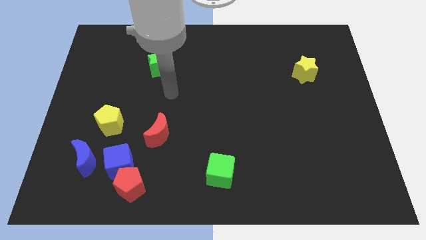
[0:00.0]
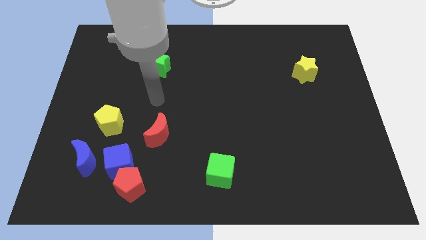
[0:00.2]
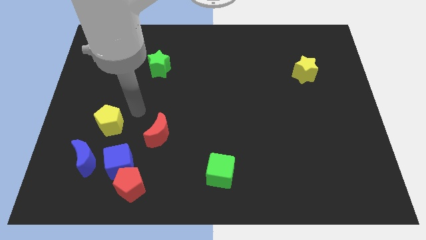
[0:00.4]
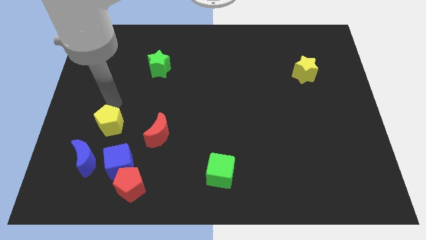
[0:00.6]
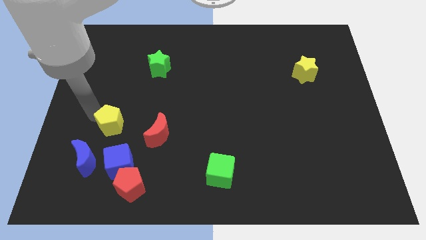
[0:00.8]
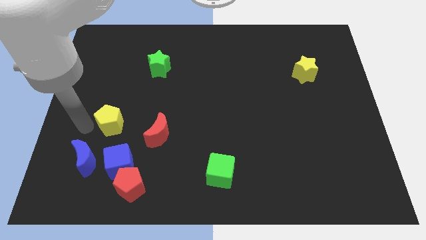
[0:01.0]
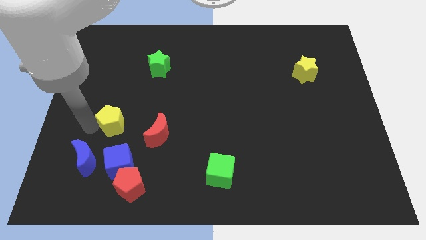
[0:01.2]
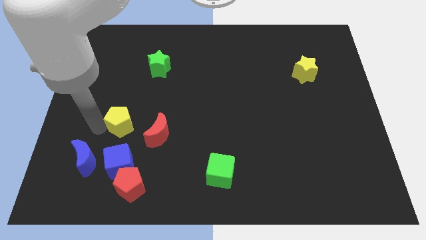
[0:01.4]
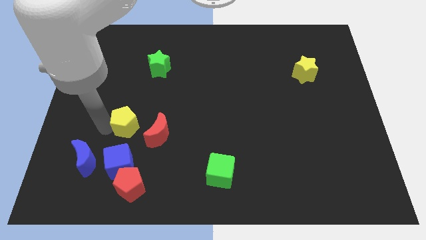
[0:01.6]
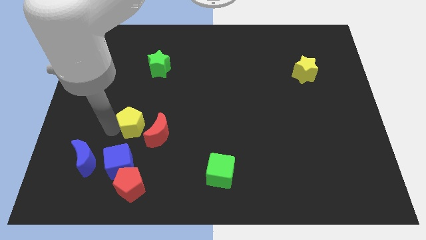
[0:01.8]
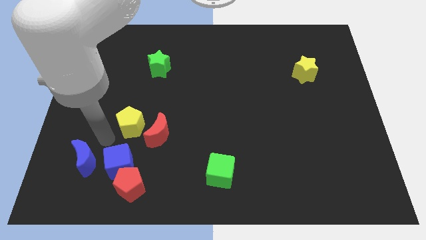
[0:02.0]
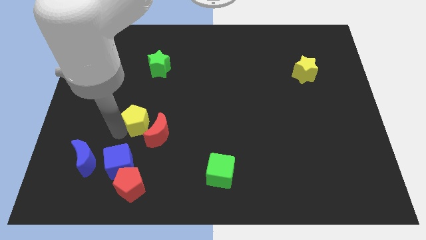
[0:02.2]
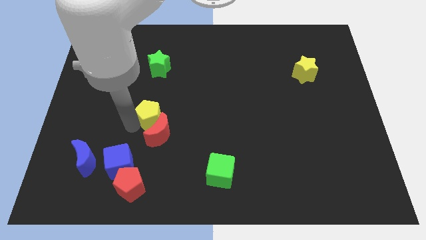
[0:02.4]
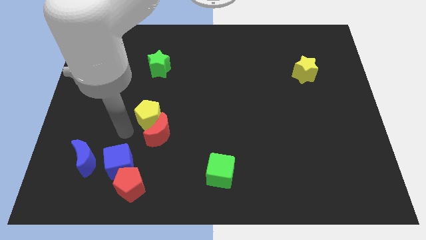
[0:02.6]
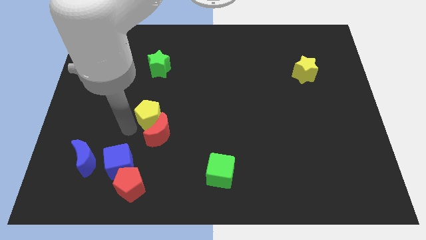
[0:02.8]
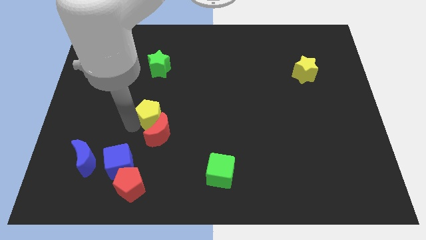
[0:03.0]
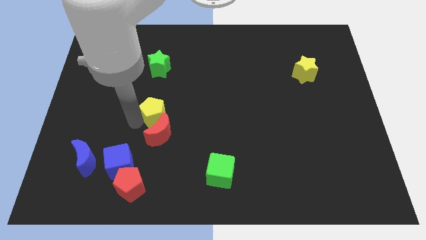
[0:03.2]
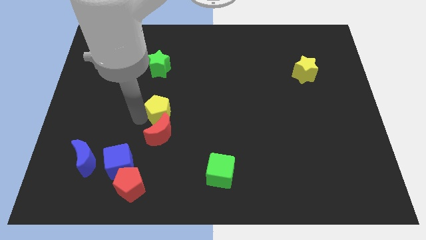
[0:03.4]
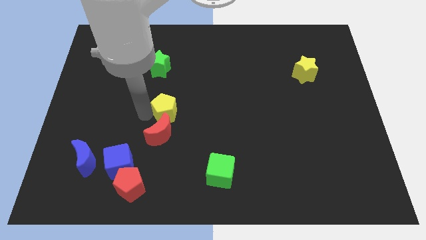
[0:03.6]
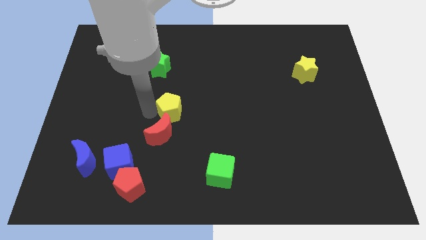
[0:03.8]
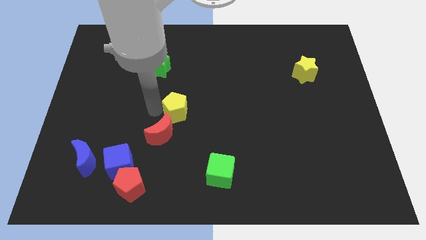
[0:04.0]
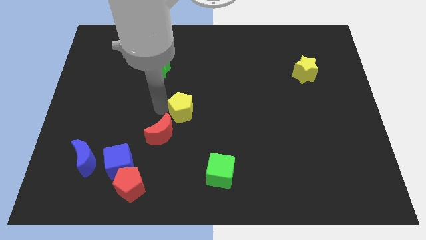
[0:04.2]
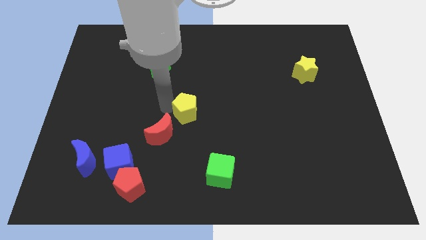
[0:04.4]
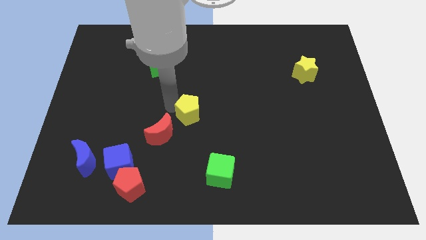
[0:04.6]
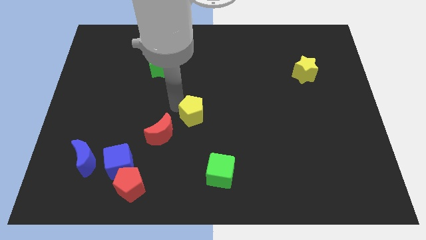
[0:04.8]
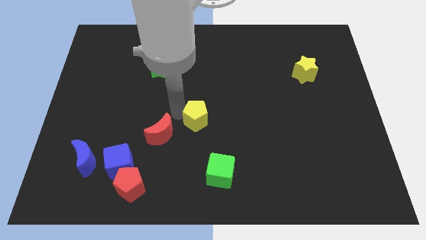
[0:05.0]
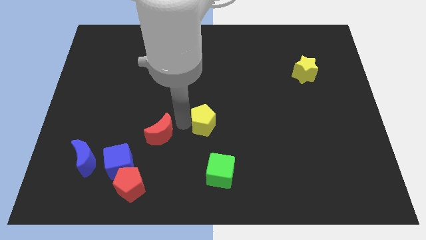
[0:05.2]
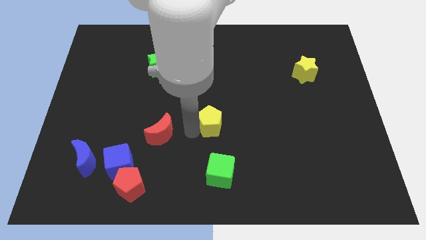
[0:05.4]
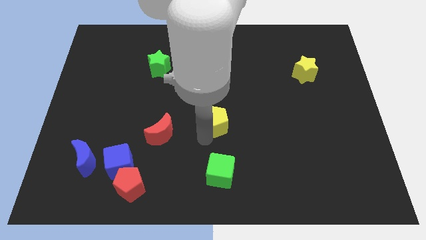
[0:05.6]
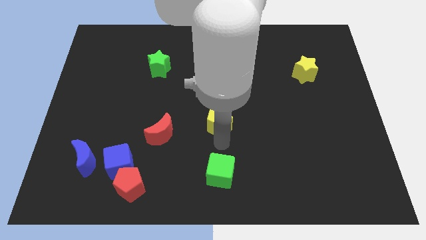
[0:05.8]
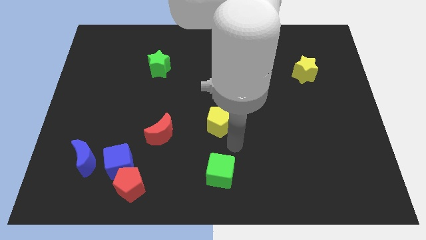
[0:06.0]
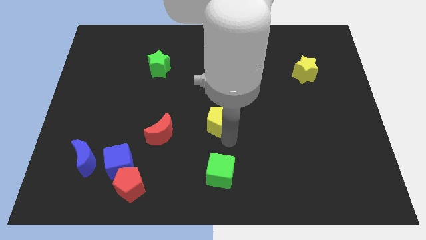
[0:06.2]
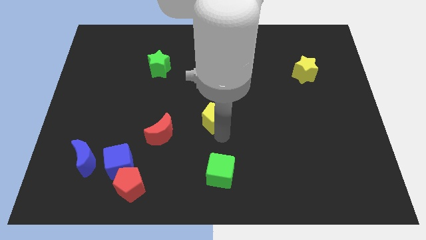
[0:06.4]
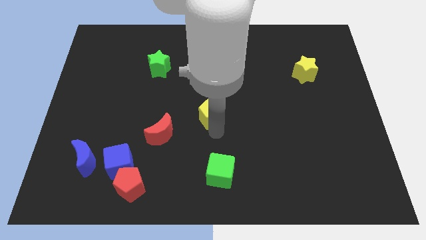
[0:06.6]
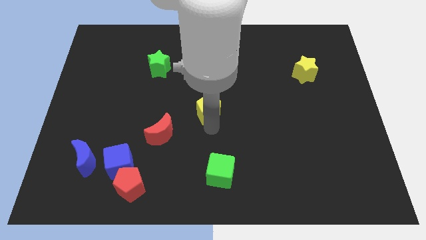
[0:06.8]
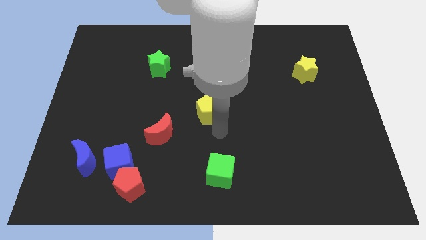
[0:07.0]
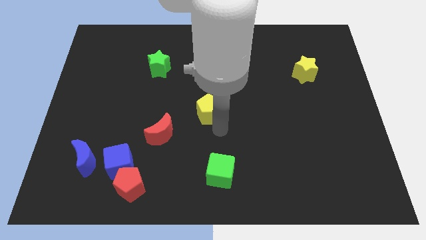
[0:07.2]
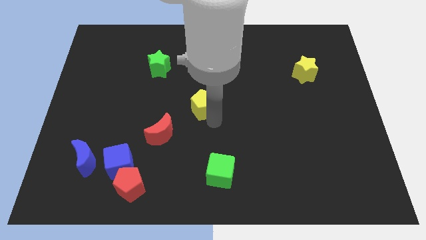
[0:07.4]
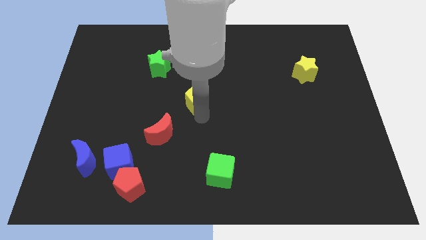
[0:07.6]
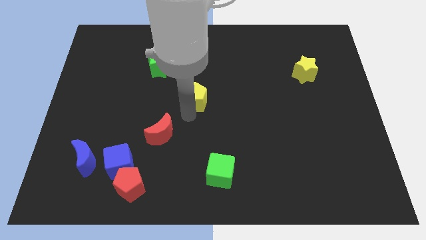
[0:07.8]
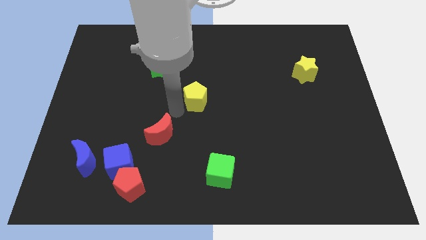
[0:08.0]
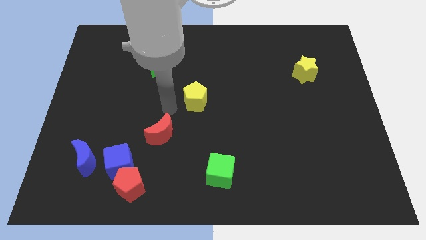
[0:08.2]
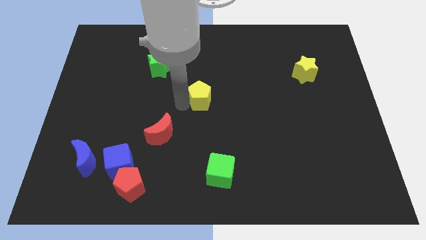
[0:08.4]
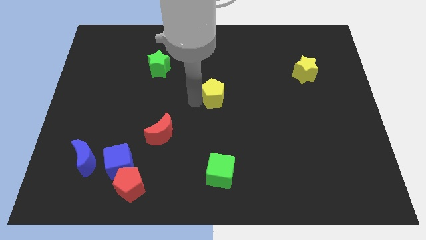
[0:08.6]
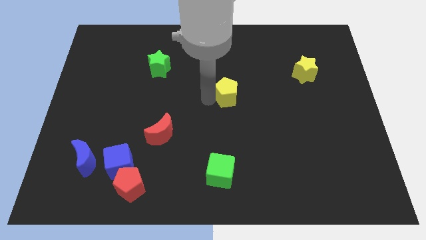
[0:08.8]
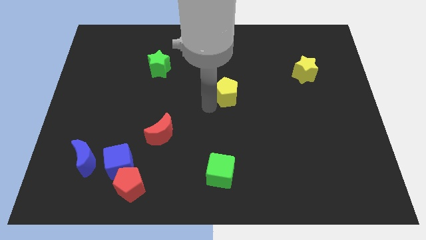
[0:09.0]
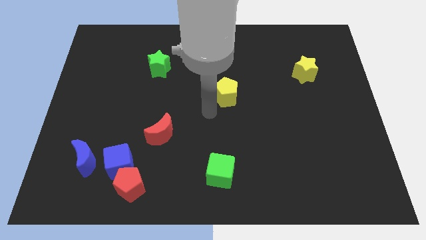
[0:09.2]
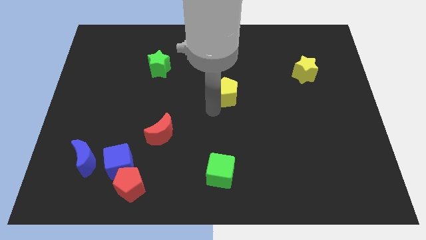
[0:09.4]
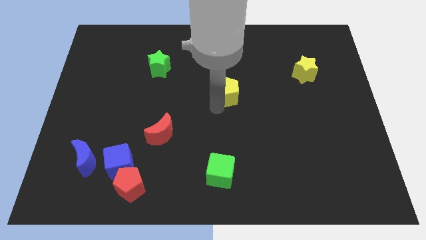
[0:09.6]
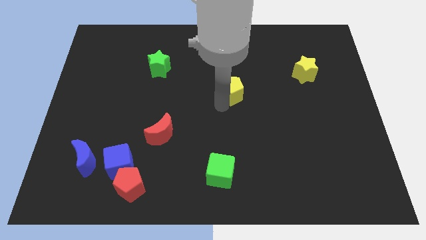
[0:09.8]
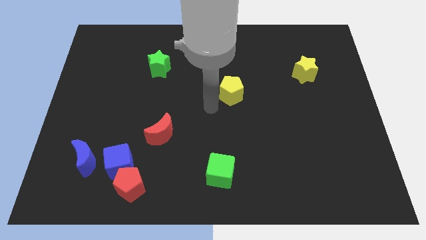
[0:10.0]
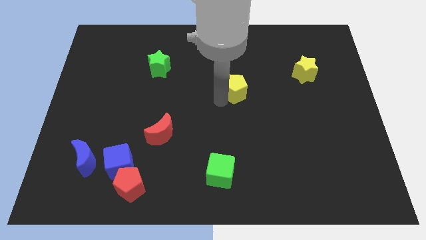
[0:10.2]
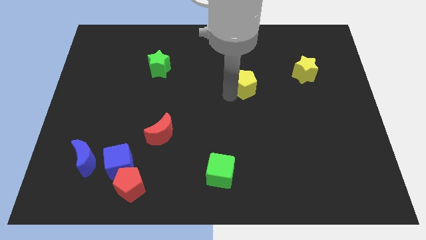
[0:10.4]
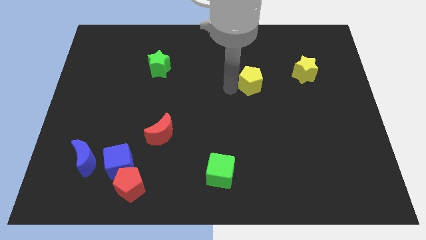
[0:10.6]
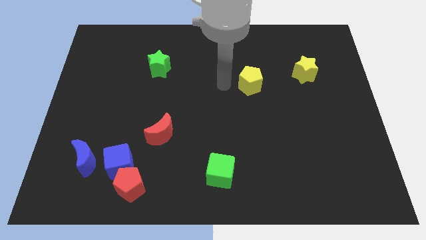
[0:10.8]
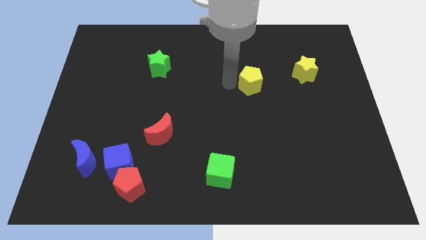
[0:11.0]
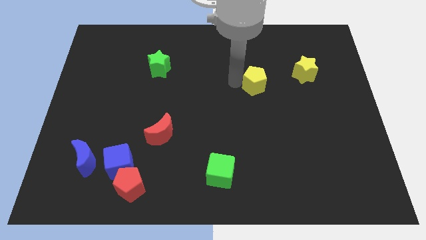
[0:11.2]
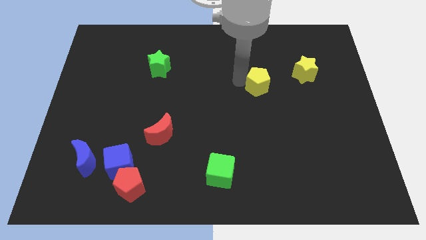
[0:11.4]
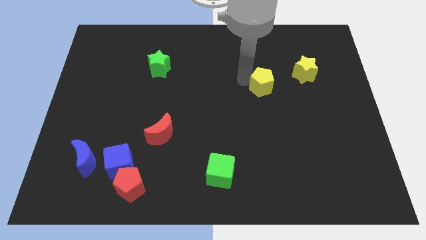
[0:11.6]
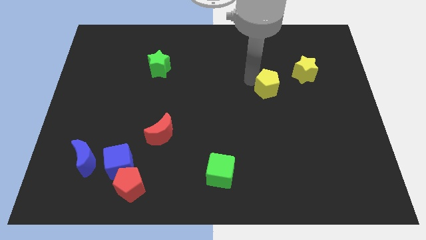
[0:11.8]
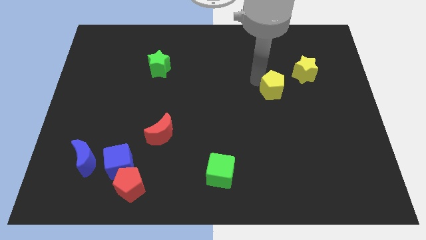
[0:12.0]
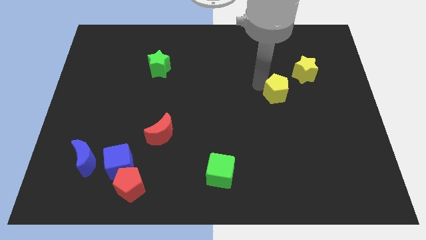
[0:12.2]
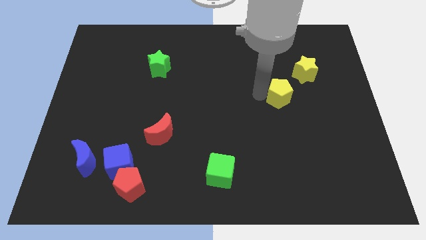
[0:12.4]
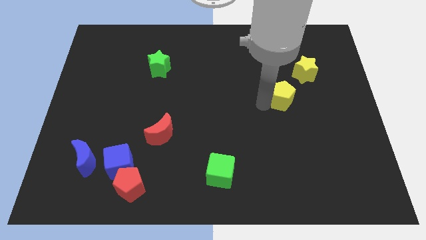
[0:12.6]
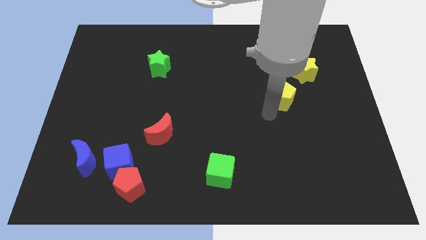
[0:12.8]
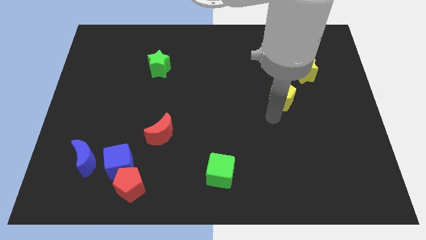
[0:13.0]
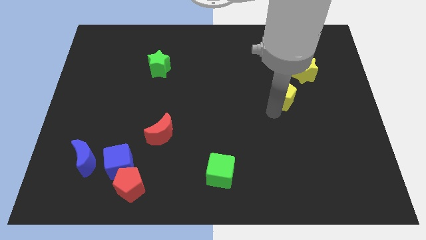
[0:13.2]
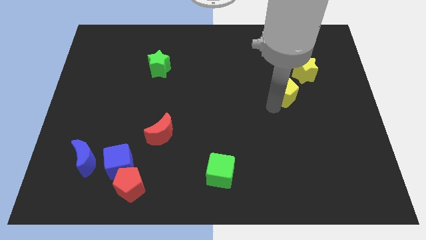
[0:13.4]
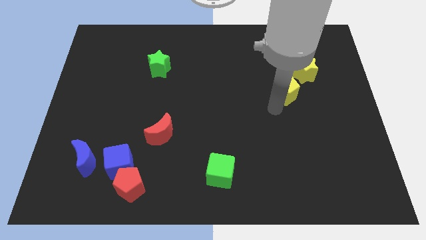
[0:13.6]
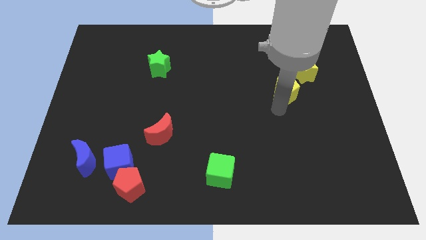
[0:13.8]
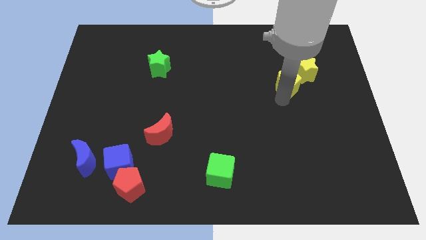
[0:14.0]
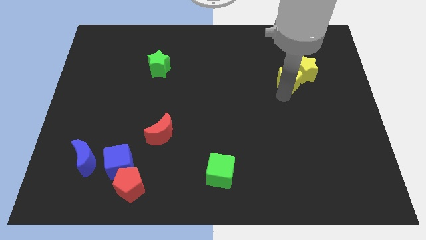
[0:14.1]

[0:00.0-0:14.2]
put the yellow pentagon to the yellow star
